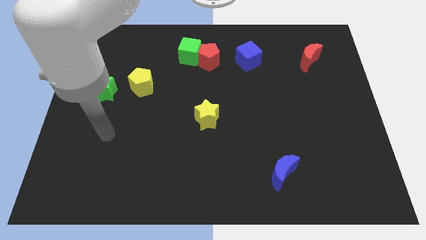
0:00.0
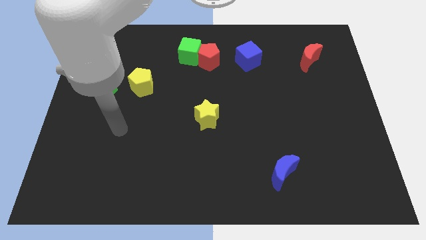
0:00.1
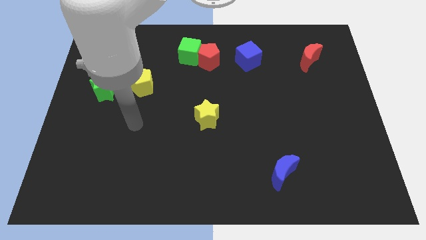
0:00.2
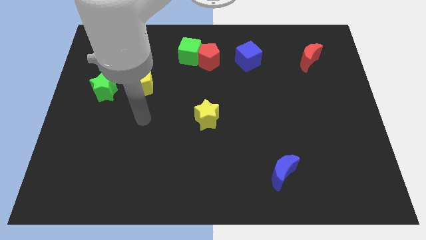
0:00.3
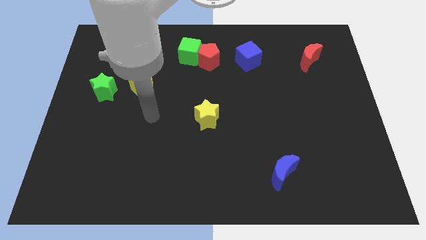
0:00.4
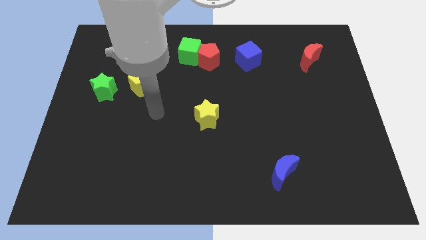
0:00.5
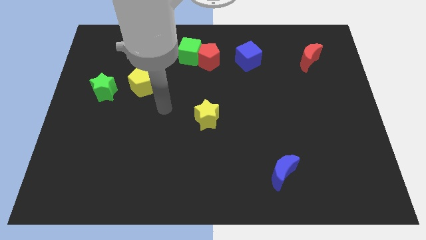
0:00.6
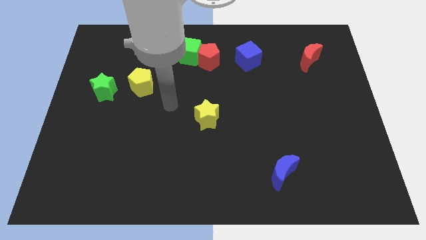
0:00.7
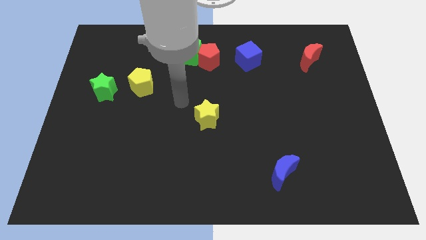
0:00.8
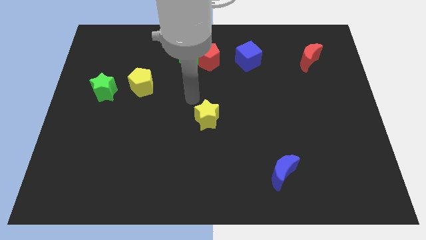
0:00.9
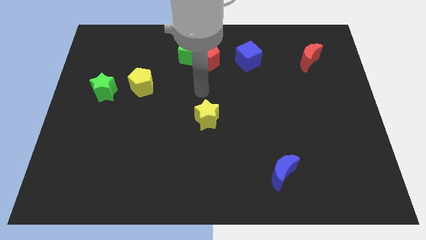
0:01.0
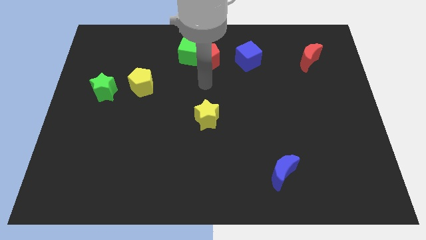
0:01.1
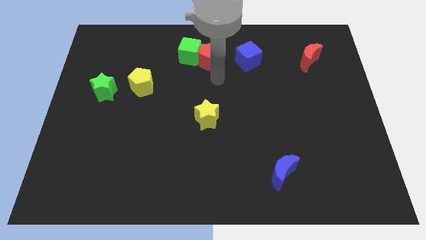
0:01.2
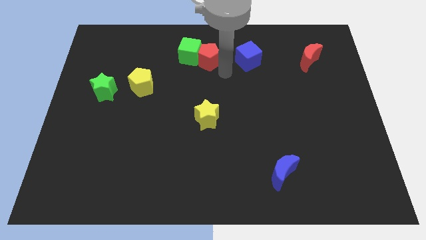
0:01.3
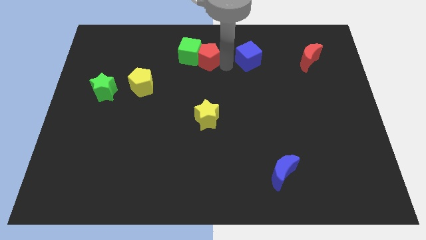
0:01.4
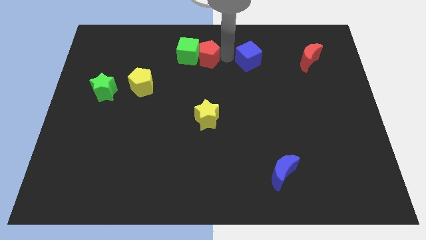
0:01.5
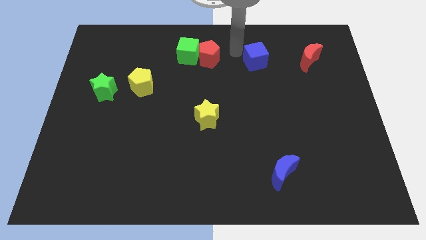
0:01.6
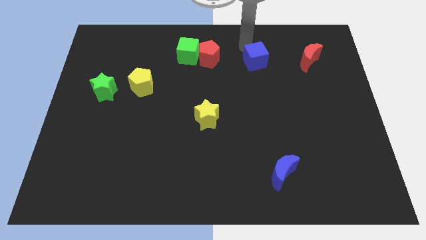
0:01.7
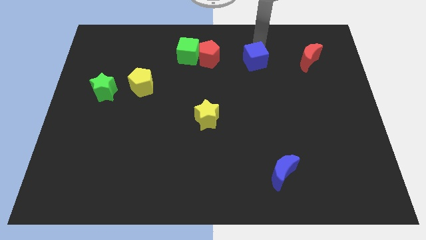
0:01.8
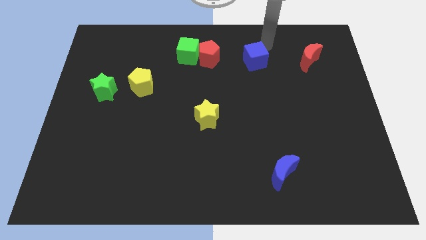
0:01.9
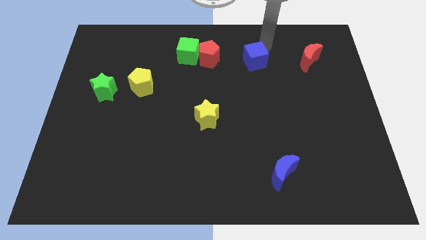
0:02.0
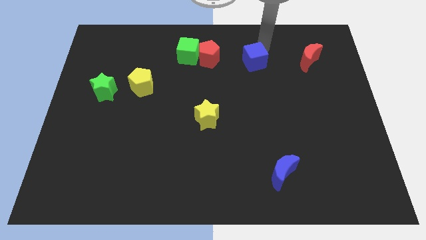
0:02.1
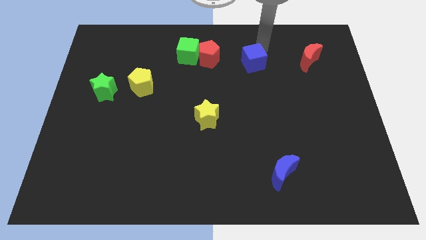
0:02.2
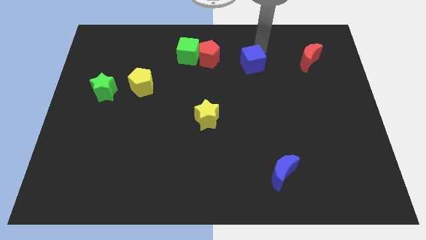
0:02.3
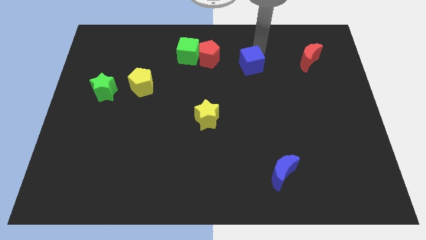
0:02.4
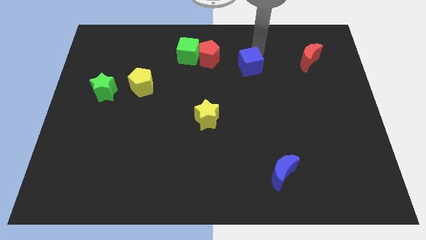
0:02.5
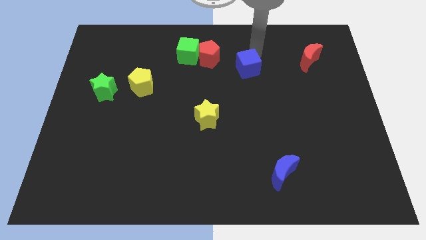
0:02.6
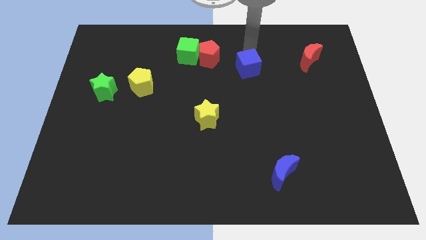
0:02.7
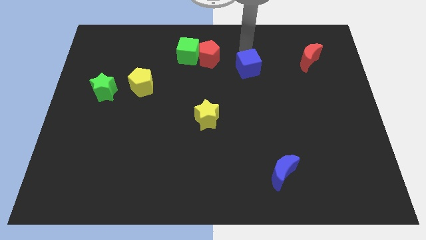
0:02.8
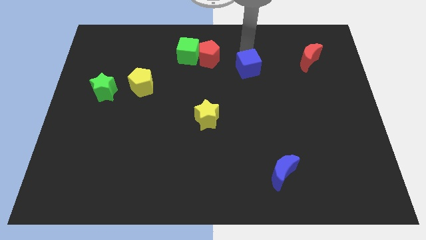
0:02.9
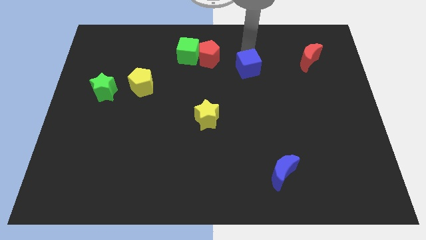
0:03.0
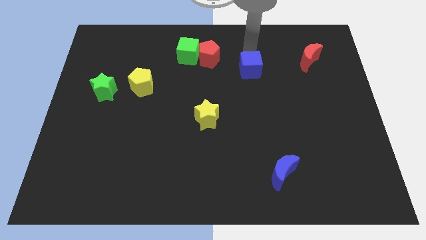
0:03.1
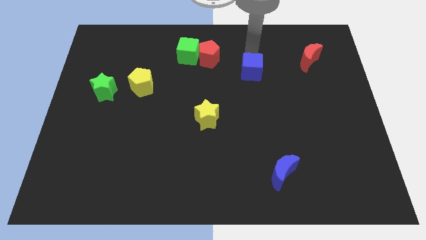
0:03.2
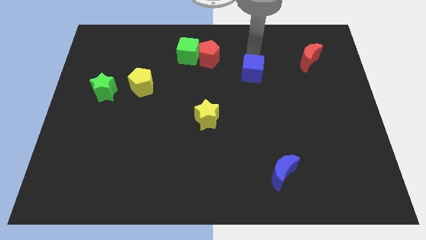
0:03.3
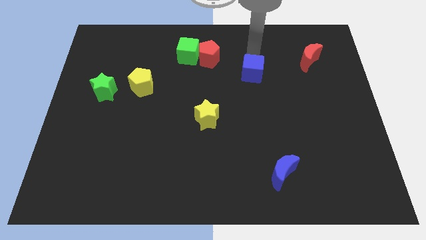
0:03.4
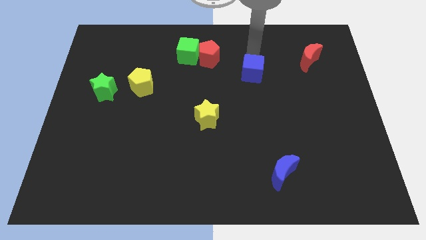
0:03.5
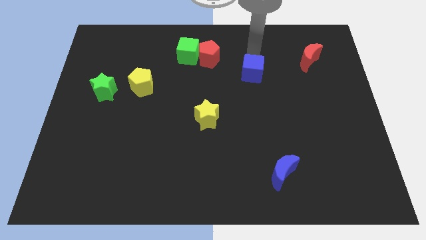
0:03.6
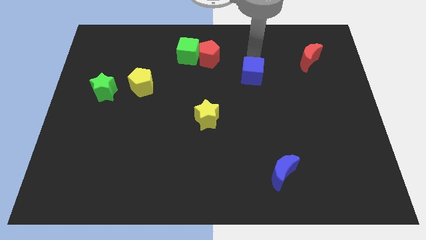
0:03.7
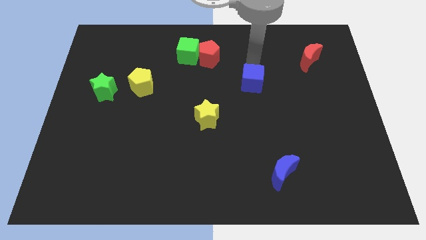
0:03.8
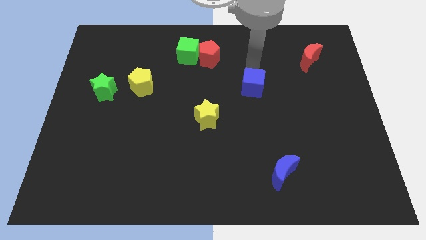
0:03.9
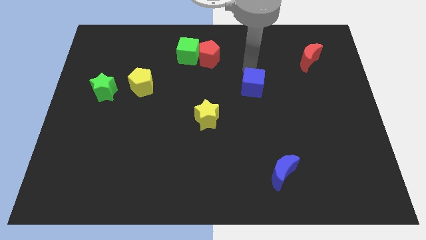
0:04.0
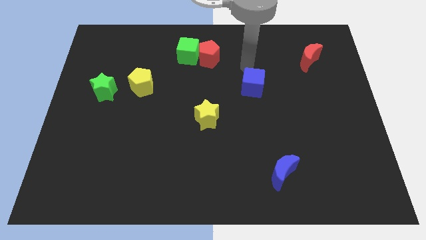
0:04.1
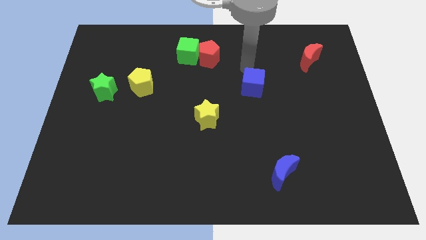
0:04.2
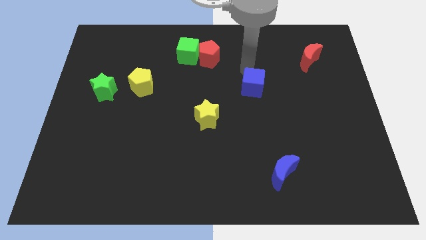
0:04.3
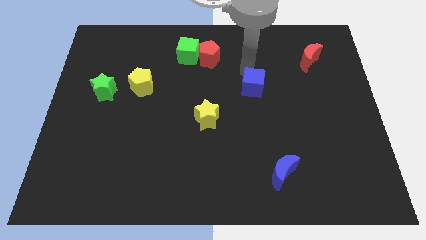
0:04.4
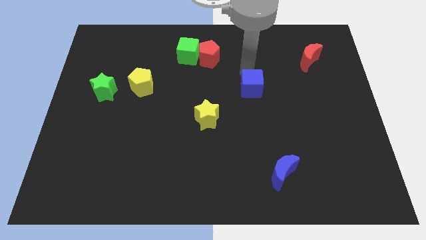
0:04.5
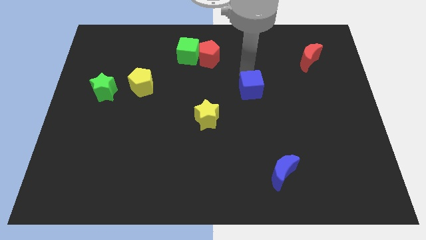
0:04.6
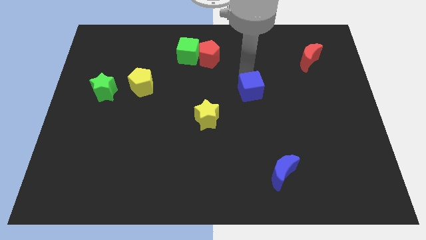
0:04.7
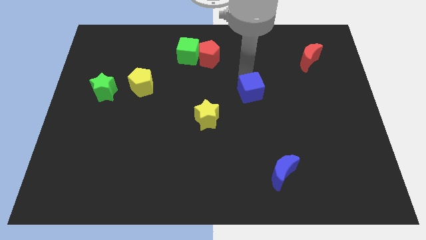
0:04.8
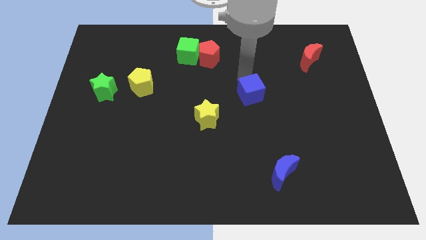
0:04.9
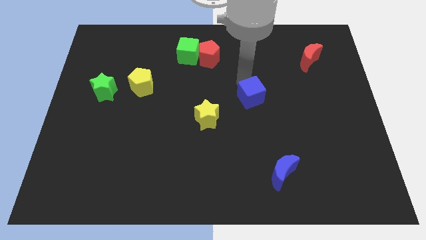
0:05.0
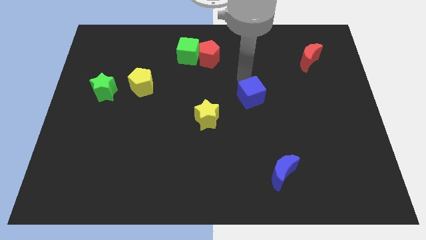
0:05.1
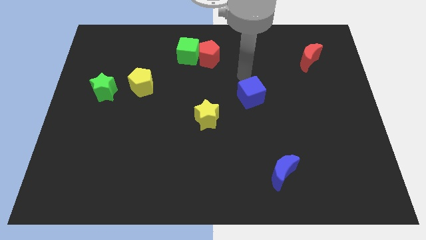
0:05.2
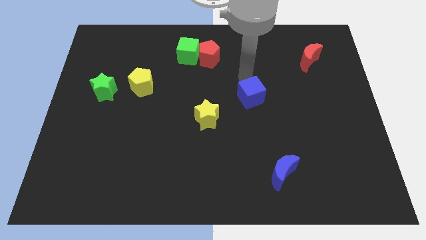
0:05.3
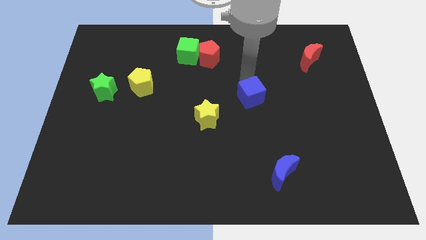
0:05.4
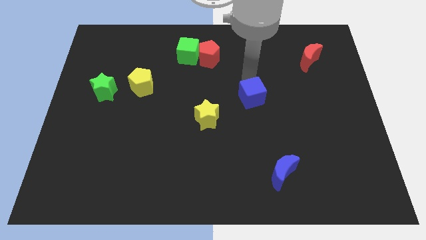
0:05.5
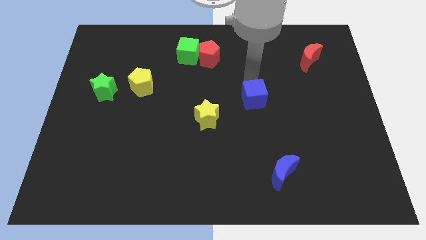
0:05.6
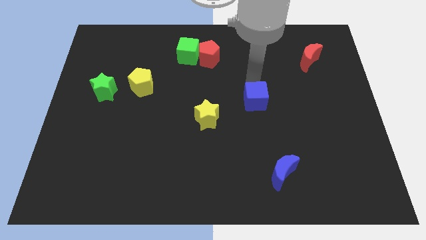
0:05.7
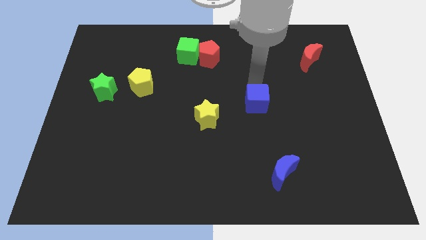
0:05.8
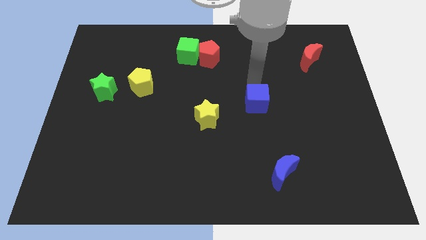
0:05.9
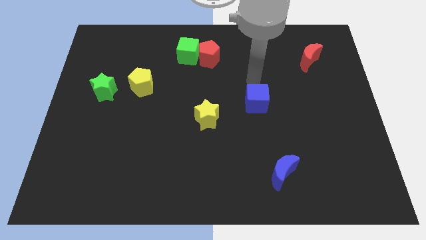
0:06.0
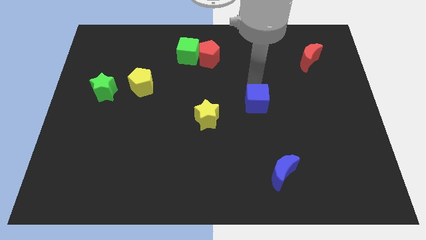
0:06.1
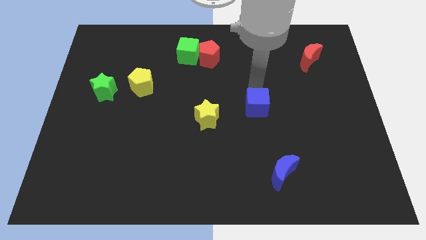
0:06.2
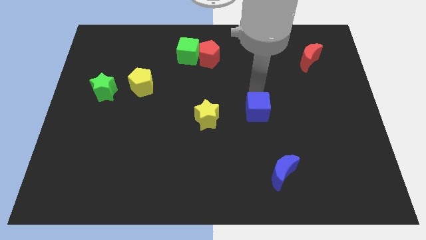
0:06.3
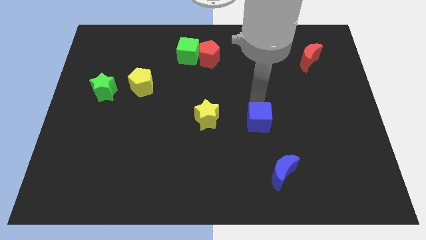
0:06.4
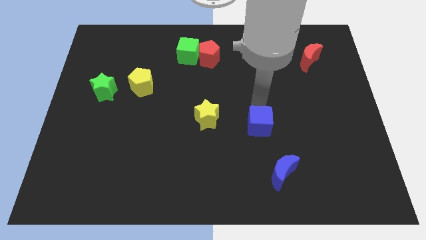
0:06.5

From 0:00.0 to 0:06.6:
push the blue cube downwards

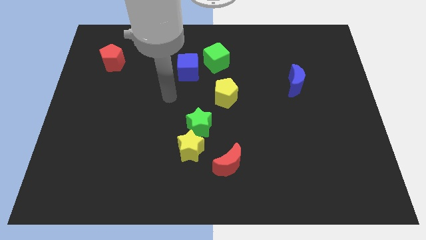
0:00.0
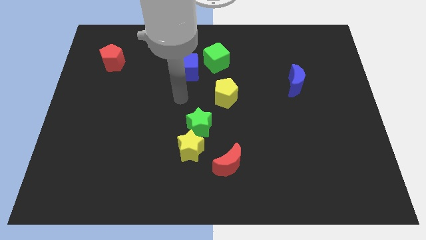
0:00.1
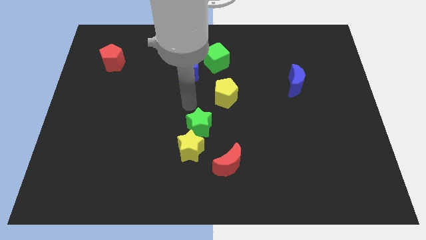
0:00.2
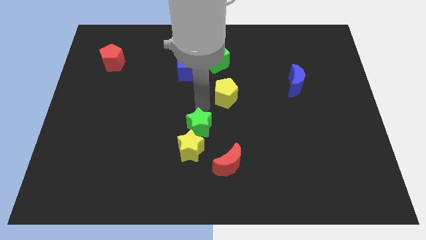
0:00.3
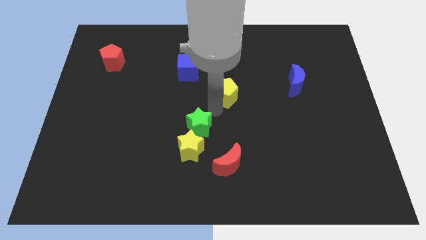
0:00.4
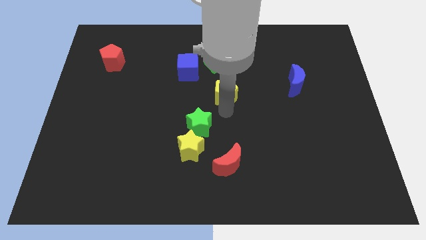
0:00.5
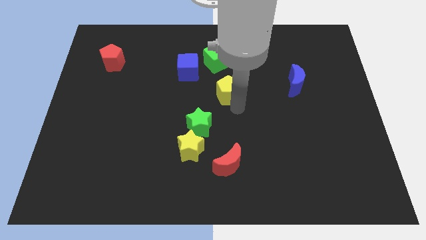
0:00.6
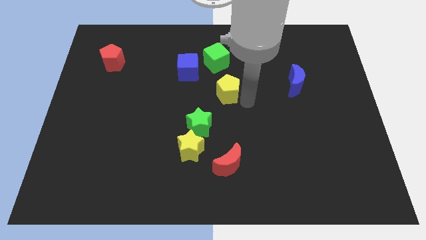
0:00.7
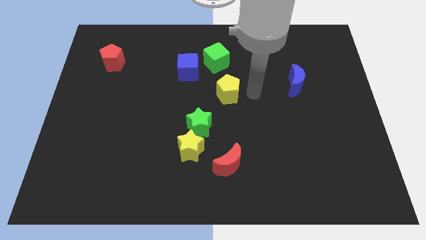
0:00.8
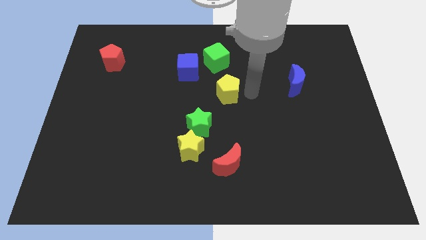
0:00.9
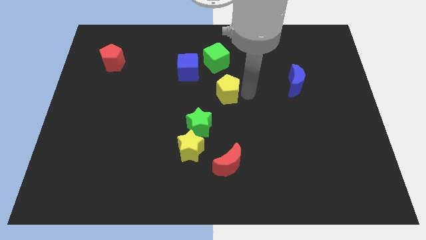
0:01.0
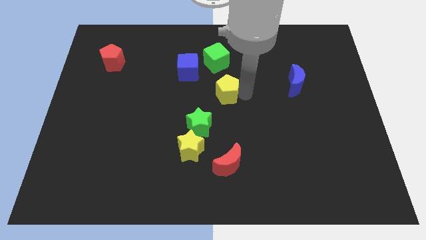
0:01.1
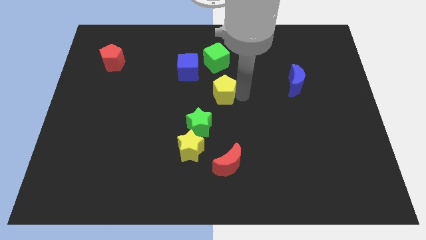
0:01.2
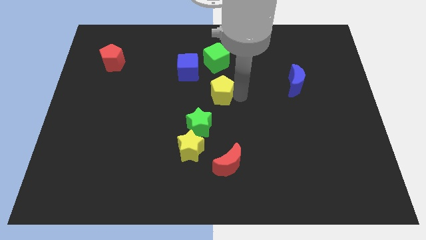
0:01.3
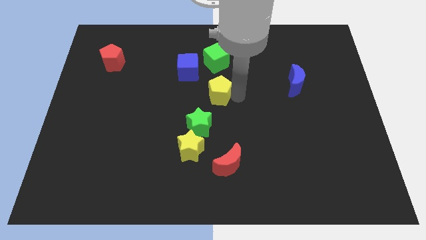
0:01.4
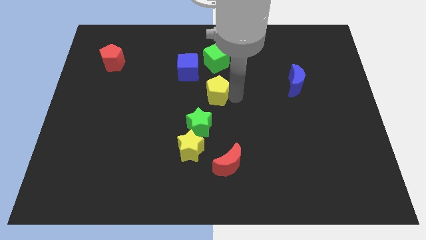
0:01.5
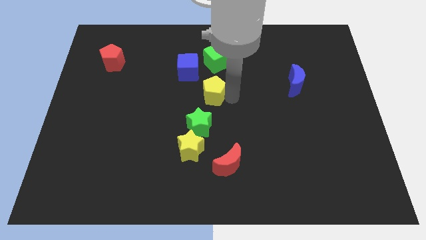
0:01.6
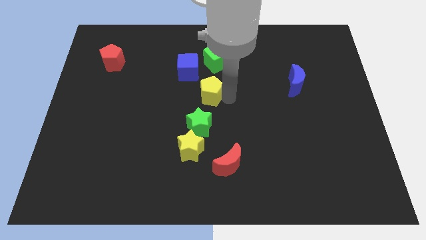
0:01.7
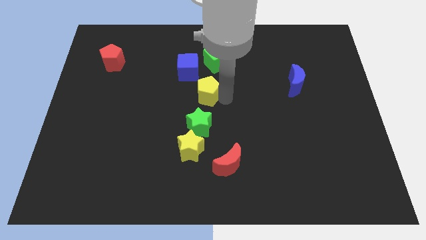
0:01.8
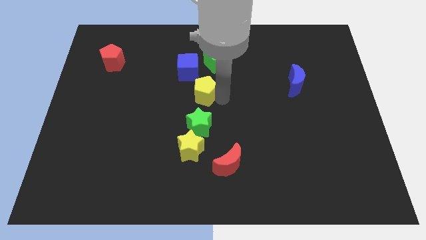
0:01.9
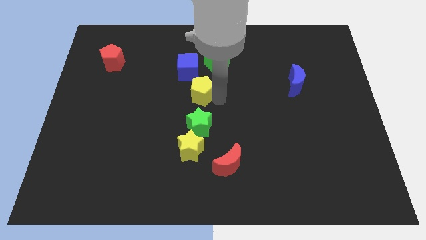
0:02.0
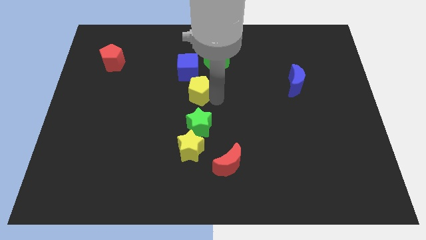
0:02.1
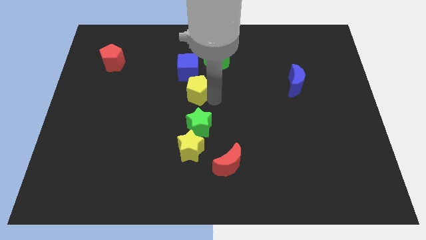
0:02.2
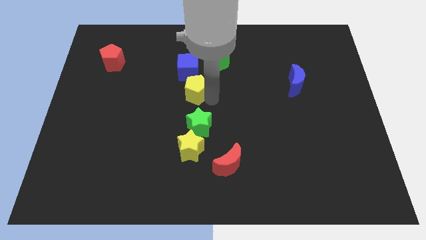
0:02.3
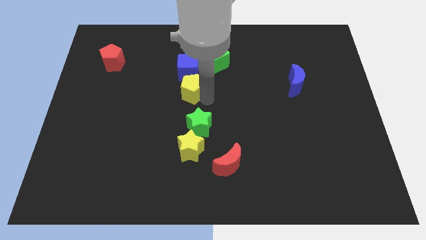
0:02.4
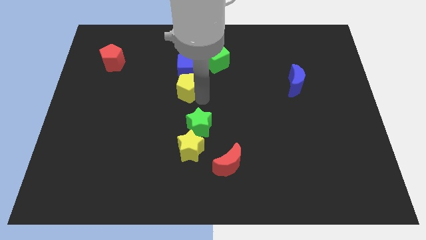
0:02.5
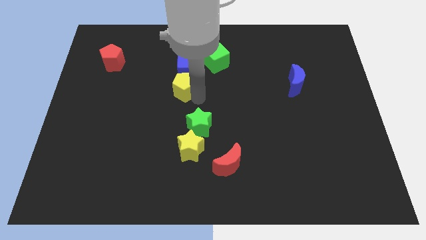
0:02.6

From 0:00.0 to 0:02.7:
slightly push the yellow pentagon up and to the left diagonally
